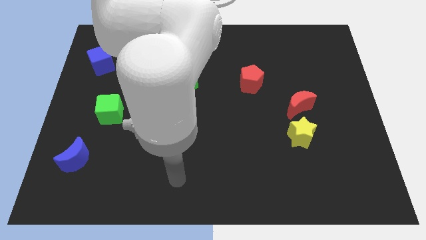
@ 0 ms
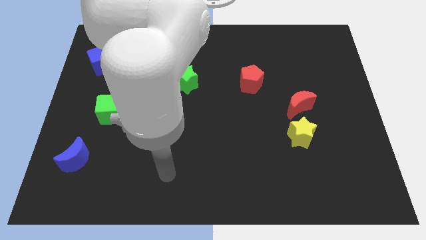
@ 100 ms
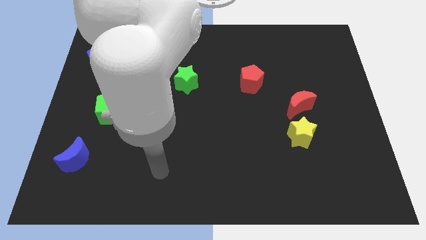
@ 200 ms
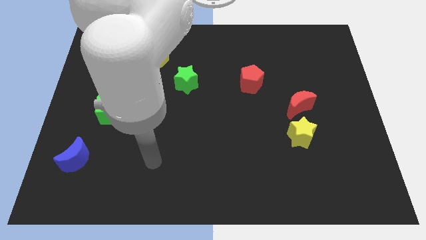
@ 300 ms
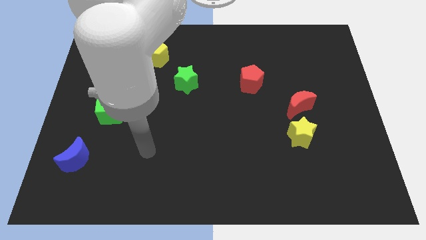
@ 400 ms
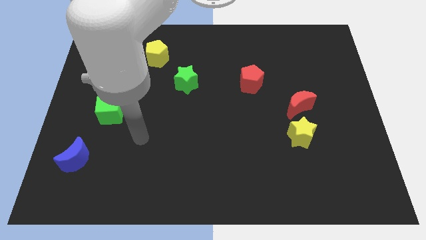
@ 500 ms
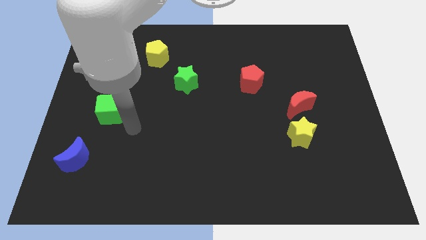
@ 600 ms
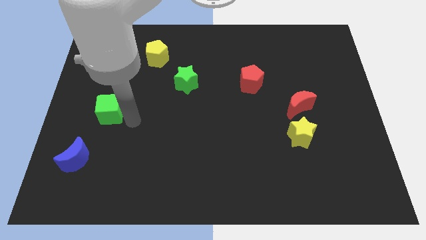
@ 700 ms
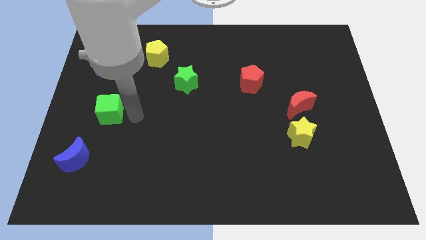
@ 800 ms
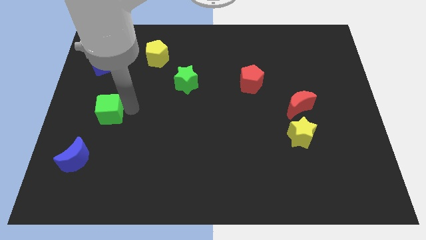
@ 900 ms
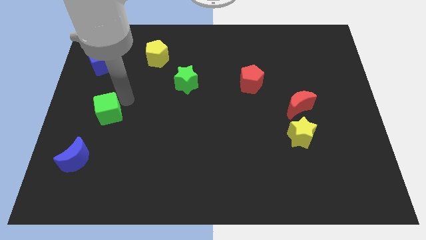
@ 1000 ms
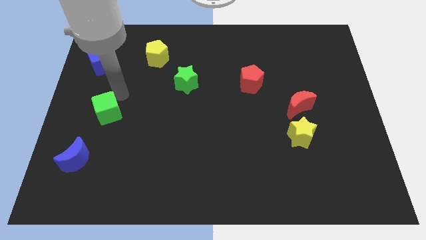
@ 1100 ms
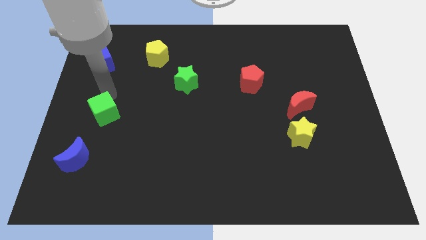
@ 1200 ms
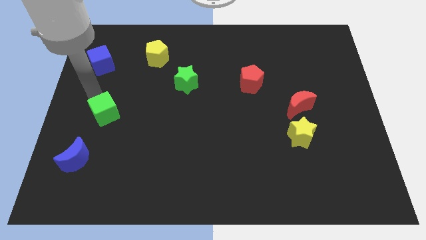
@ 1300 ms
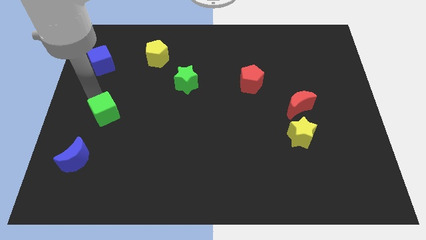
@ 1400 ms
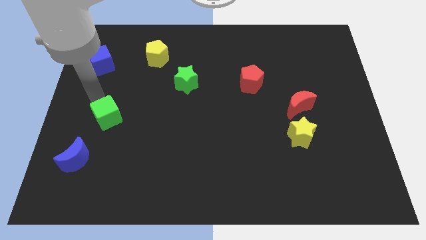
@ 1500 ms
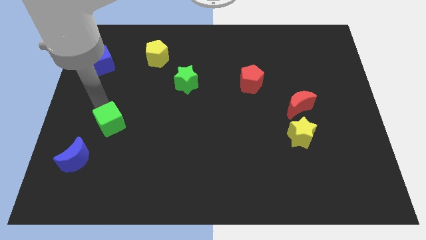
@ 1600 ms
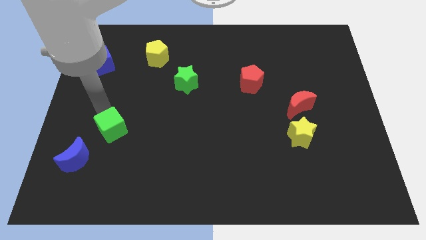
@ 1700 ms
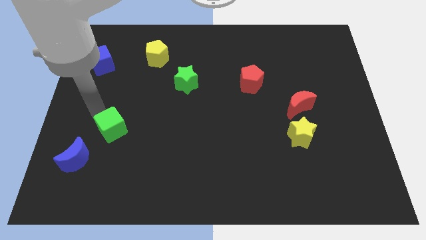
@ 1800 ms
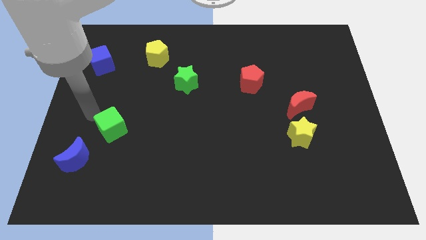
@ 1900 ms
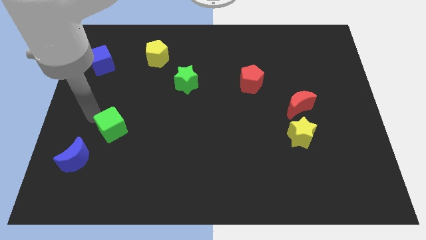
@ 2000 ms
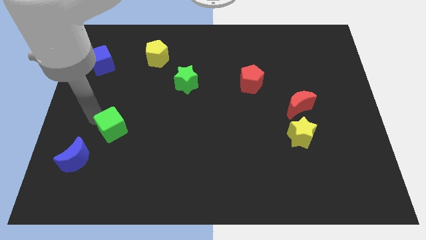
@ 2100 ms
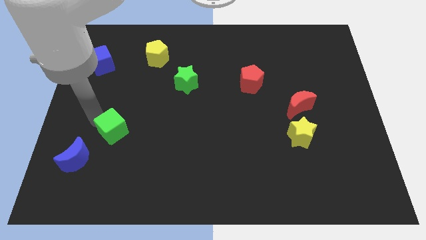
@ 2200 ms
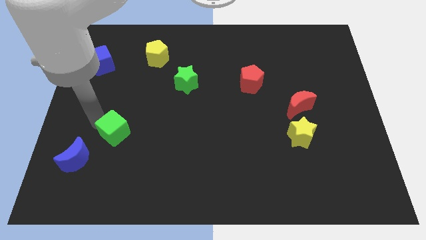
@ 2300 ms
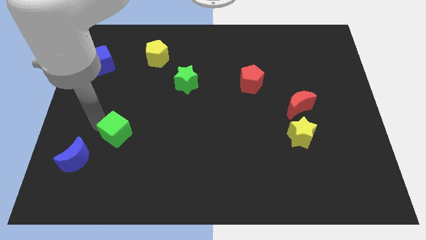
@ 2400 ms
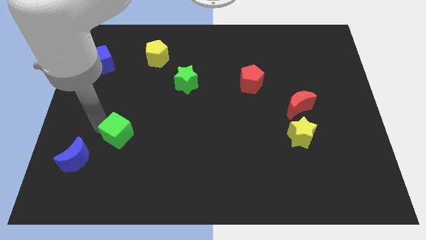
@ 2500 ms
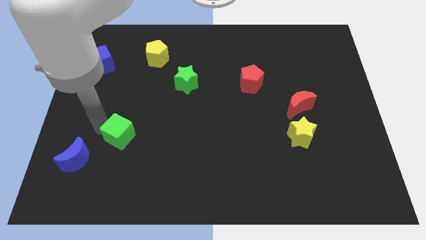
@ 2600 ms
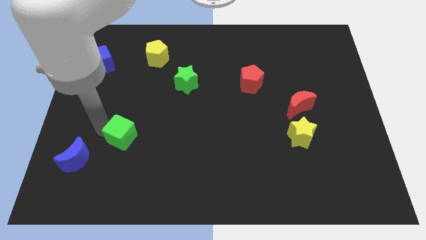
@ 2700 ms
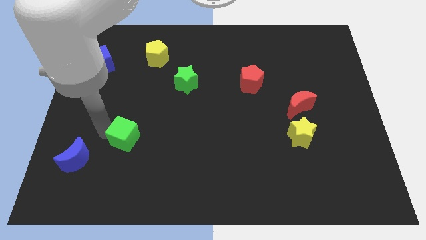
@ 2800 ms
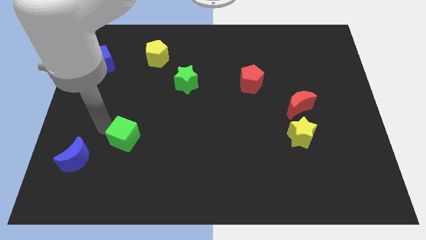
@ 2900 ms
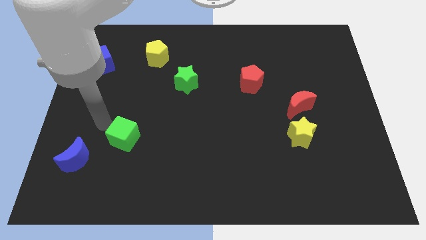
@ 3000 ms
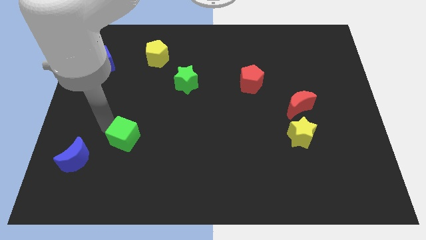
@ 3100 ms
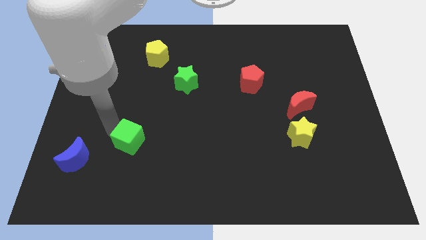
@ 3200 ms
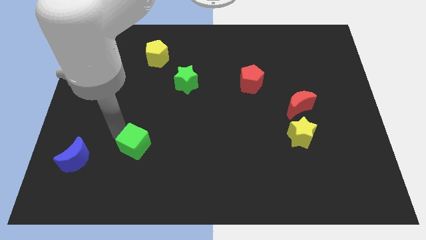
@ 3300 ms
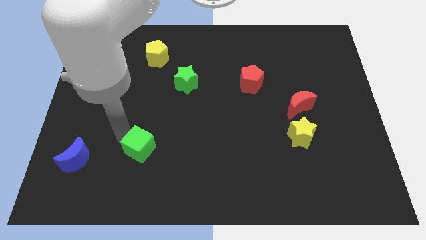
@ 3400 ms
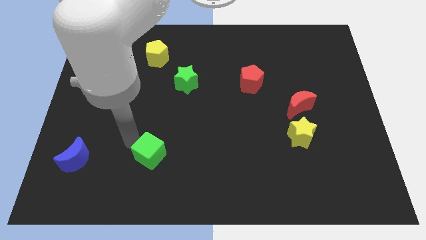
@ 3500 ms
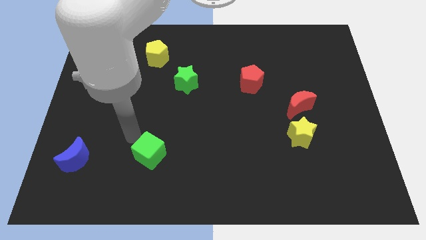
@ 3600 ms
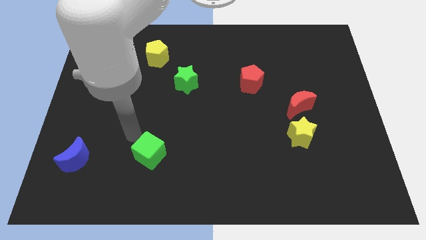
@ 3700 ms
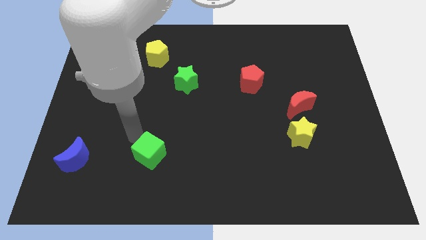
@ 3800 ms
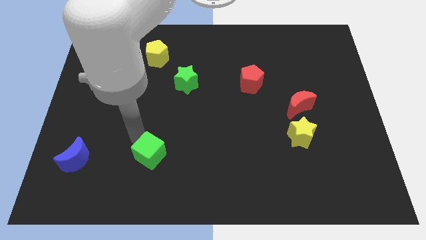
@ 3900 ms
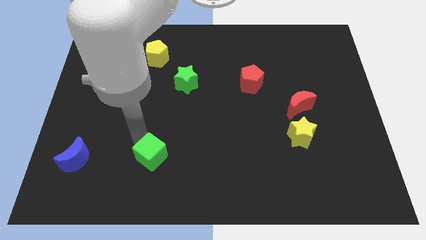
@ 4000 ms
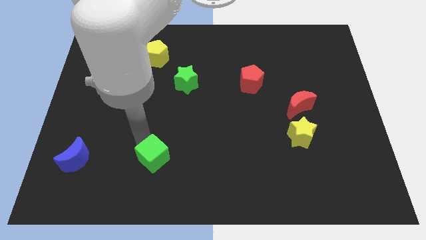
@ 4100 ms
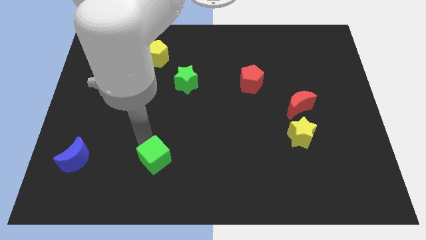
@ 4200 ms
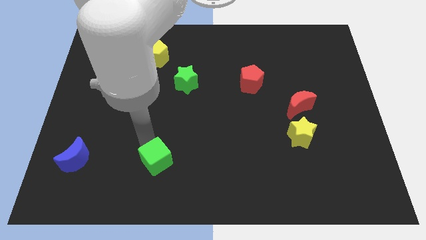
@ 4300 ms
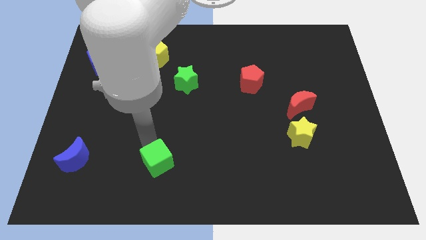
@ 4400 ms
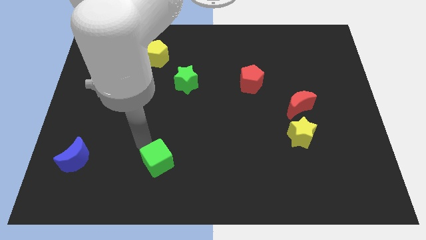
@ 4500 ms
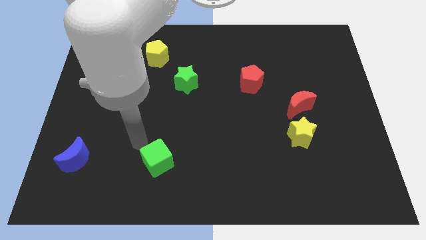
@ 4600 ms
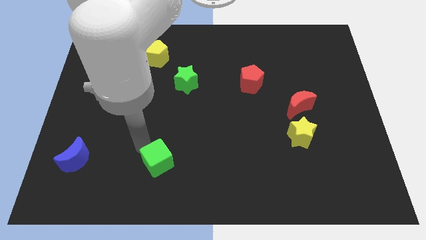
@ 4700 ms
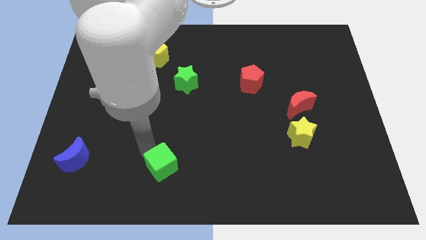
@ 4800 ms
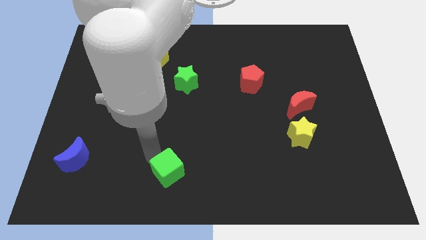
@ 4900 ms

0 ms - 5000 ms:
put the green cube to the bottom

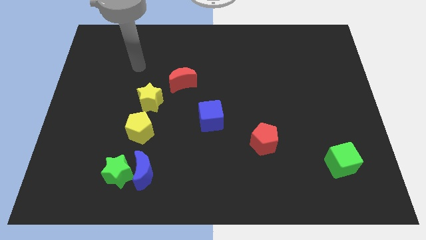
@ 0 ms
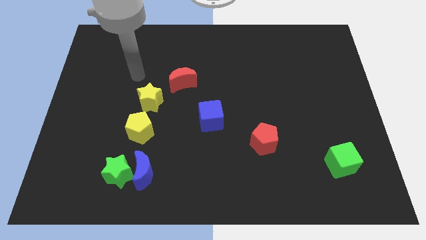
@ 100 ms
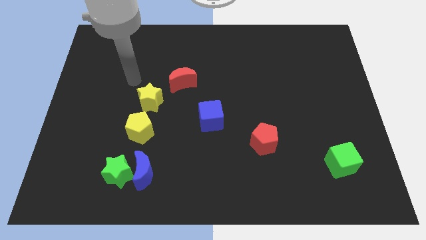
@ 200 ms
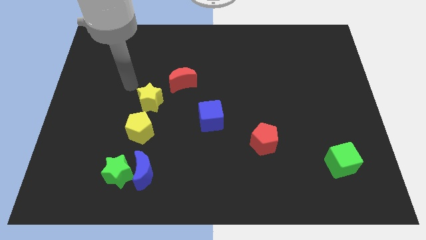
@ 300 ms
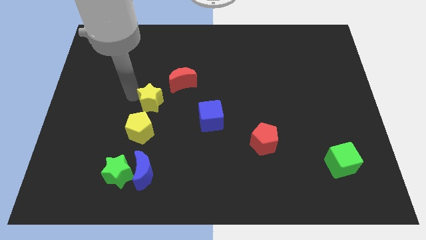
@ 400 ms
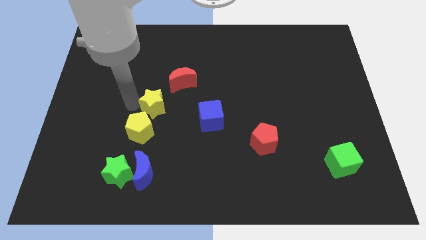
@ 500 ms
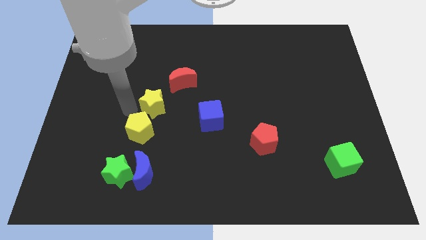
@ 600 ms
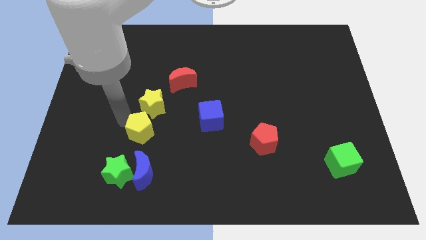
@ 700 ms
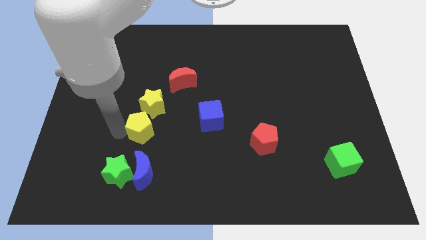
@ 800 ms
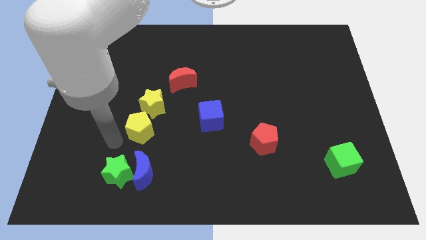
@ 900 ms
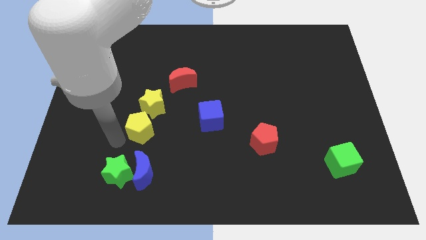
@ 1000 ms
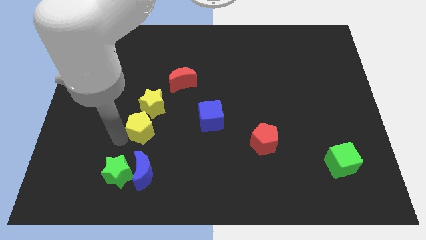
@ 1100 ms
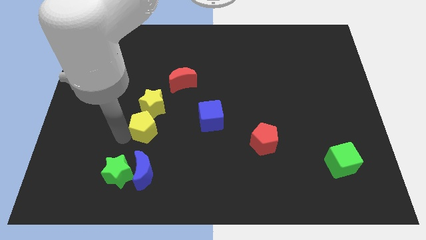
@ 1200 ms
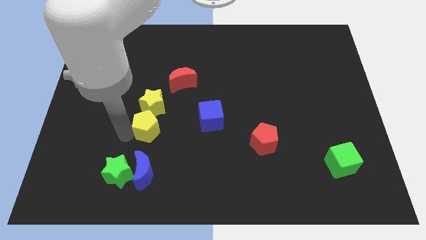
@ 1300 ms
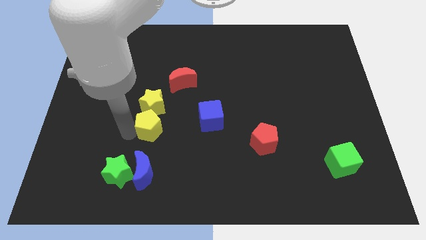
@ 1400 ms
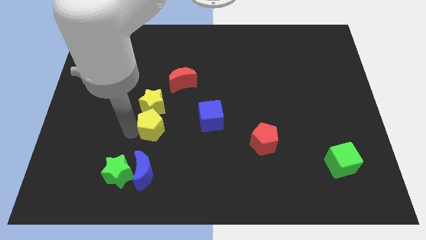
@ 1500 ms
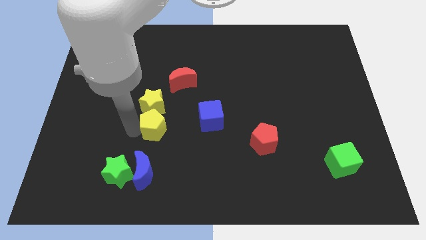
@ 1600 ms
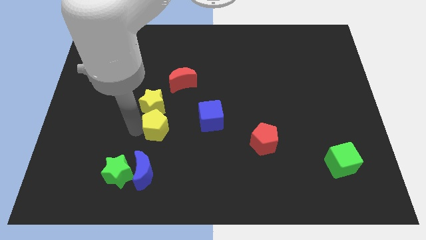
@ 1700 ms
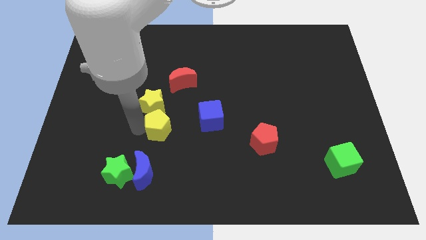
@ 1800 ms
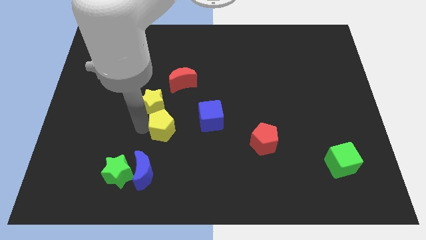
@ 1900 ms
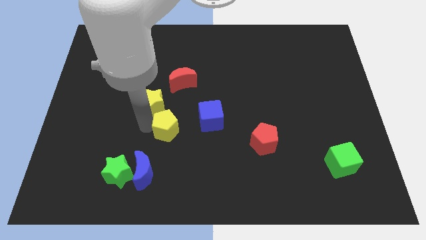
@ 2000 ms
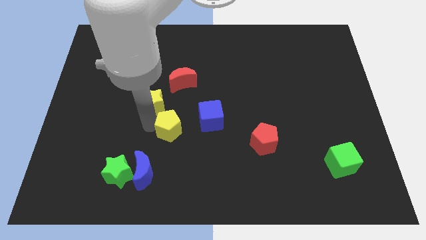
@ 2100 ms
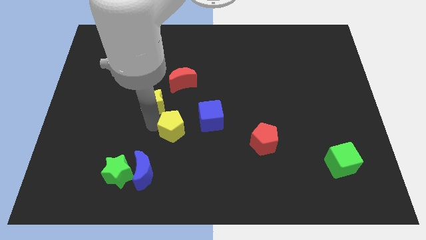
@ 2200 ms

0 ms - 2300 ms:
push the yellow pentagon to the middle

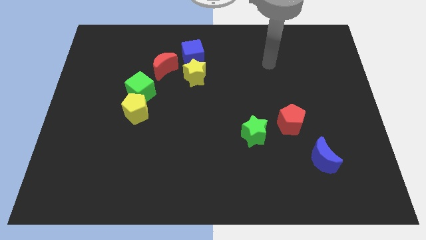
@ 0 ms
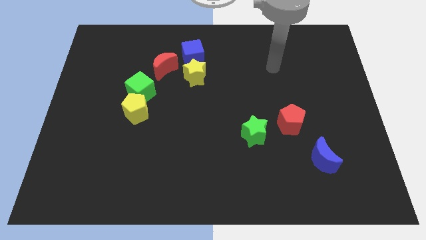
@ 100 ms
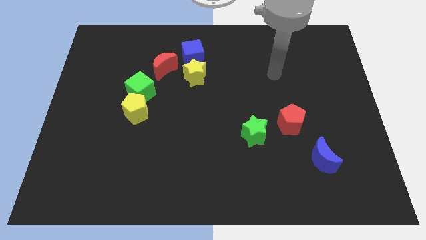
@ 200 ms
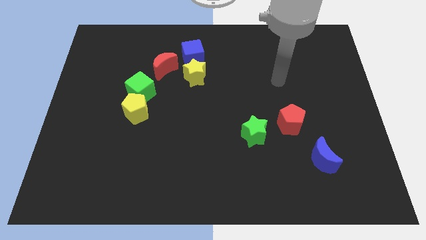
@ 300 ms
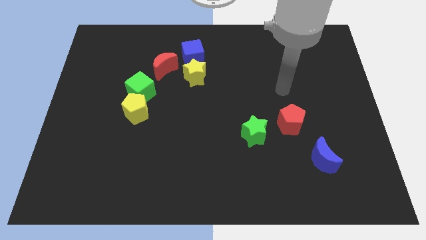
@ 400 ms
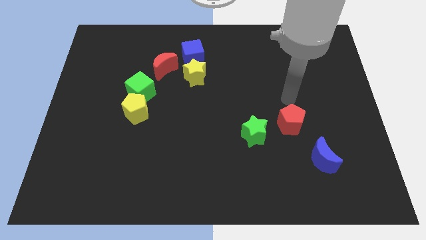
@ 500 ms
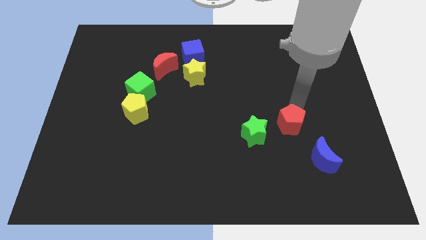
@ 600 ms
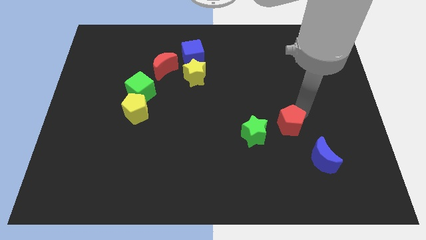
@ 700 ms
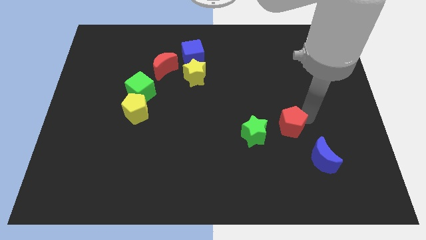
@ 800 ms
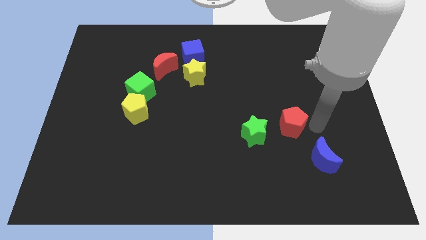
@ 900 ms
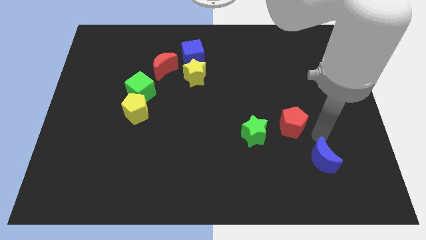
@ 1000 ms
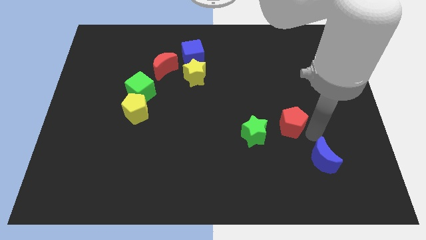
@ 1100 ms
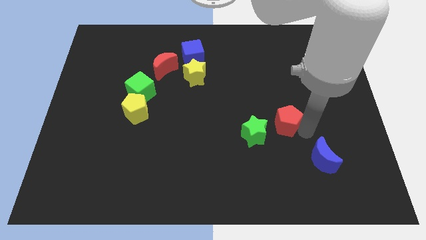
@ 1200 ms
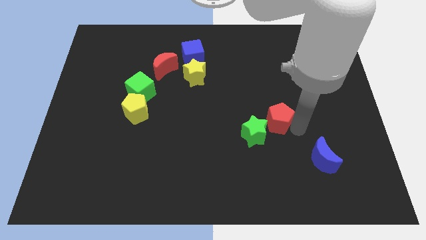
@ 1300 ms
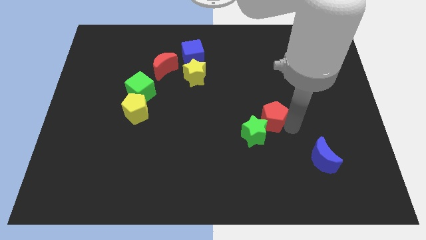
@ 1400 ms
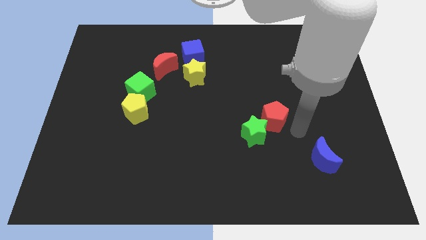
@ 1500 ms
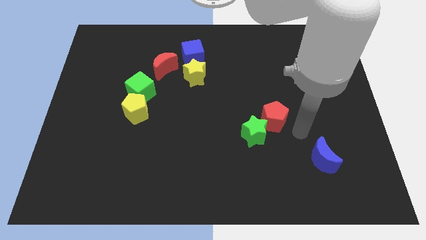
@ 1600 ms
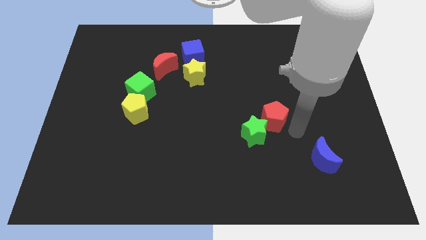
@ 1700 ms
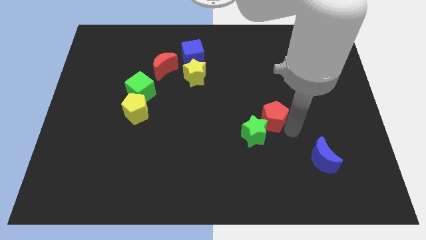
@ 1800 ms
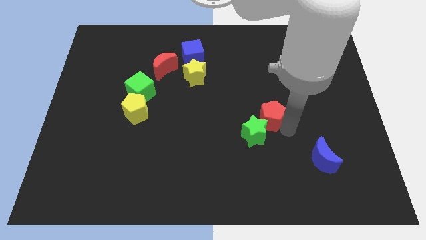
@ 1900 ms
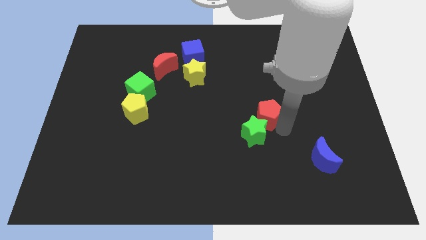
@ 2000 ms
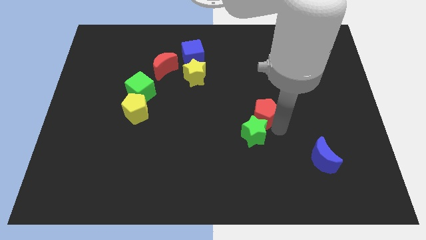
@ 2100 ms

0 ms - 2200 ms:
slide the red pentagon to the middle of the board
